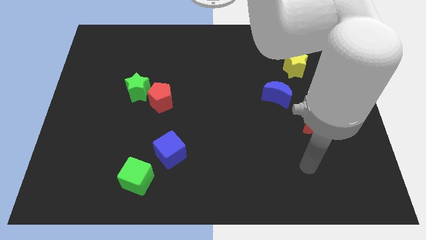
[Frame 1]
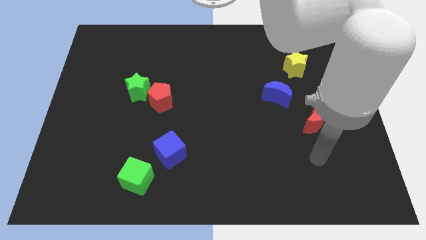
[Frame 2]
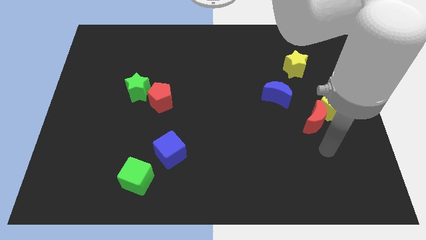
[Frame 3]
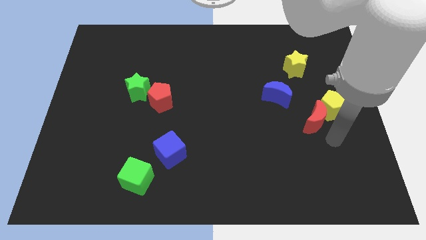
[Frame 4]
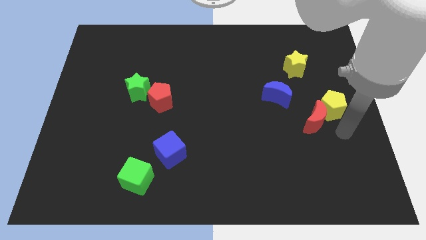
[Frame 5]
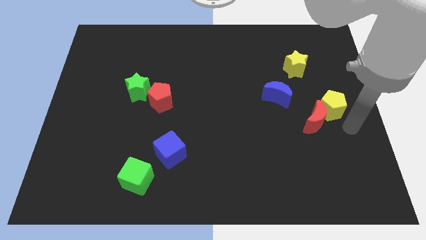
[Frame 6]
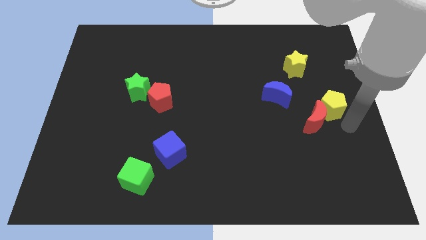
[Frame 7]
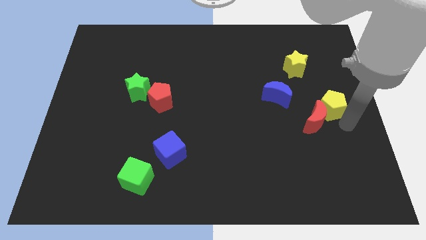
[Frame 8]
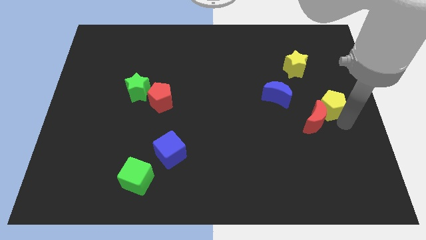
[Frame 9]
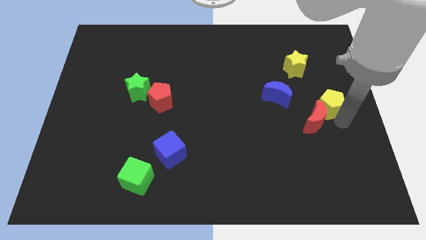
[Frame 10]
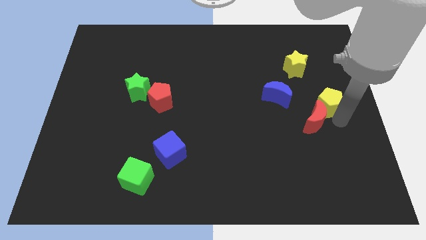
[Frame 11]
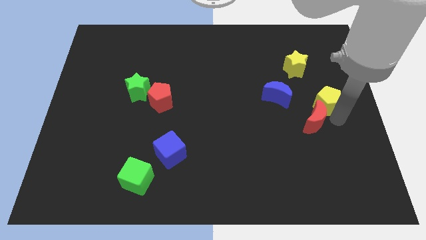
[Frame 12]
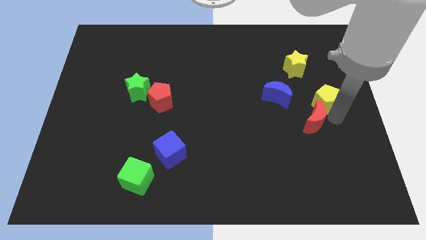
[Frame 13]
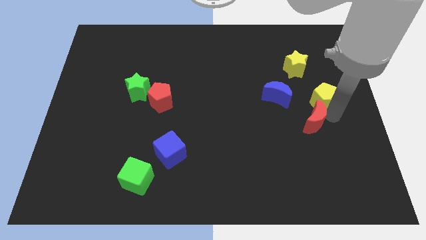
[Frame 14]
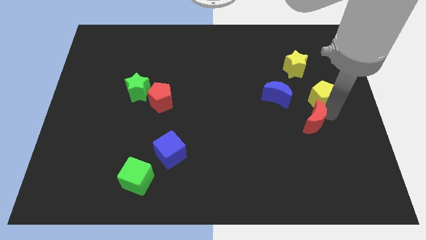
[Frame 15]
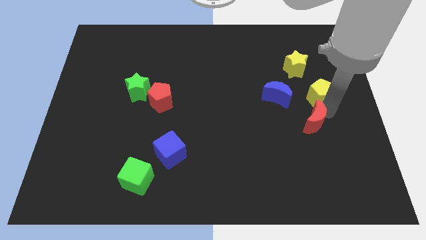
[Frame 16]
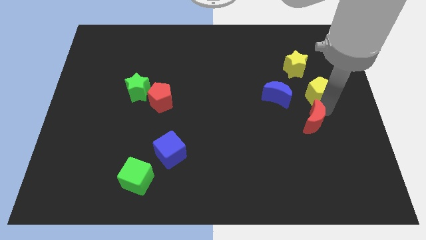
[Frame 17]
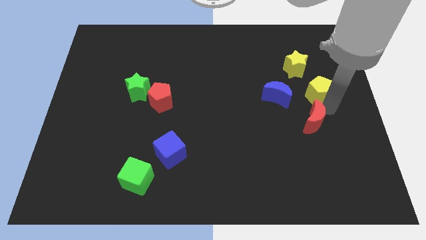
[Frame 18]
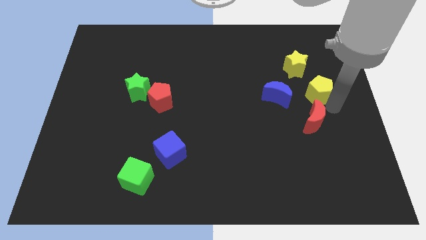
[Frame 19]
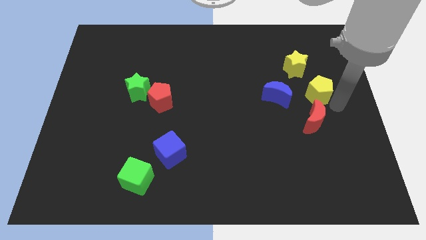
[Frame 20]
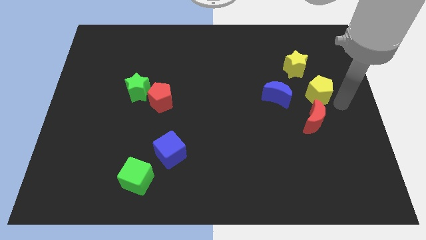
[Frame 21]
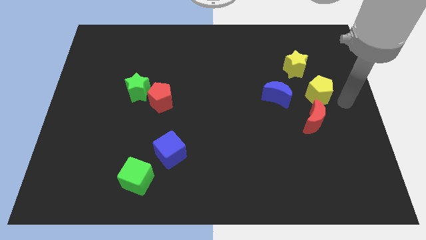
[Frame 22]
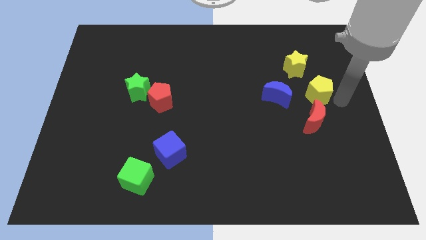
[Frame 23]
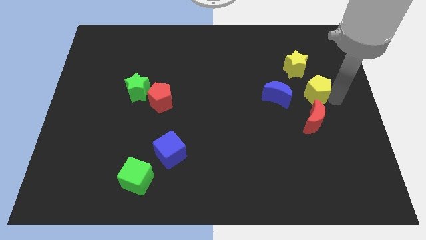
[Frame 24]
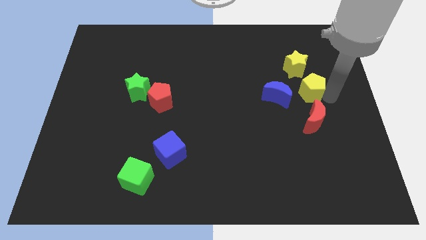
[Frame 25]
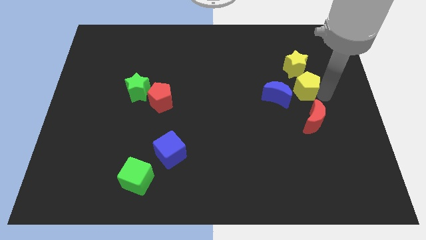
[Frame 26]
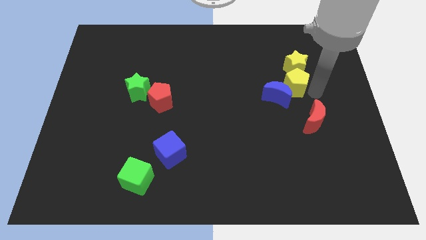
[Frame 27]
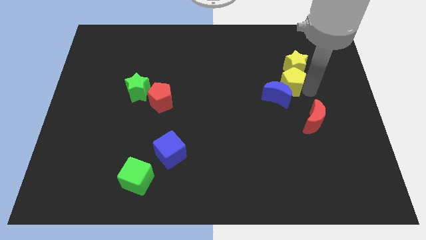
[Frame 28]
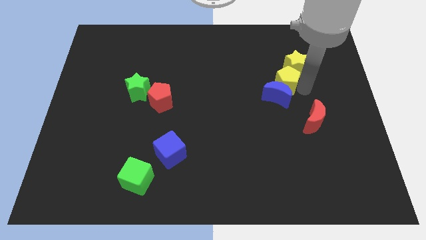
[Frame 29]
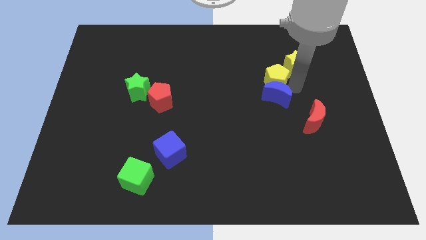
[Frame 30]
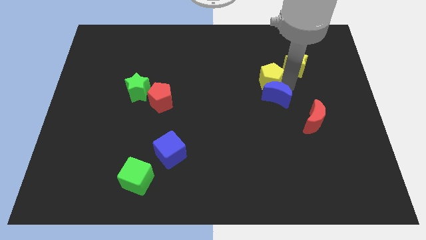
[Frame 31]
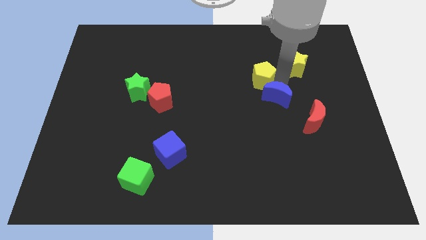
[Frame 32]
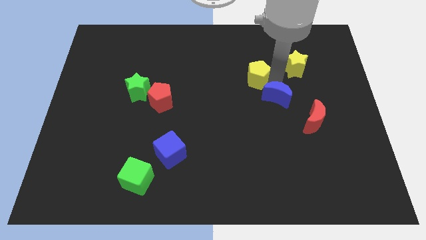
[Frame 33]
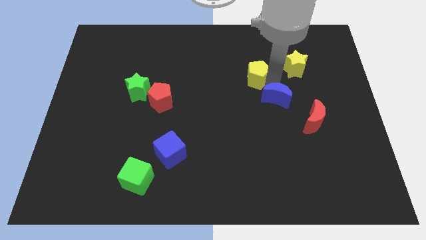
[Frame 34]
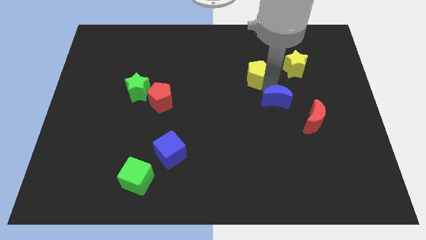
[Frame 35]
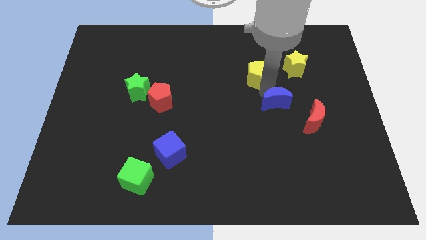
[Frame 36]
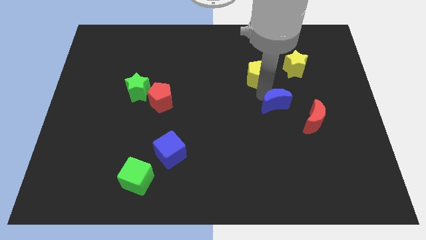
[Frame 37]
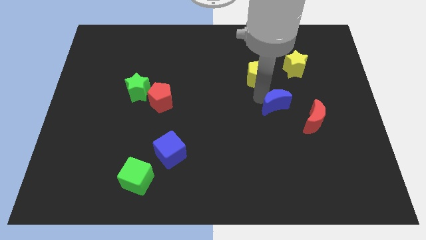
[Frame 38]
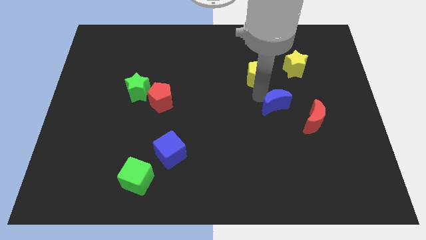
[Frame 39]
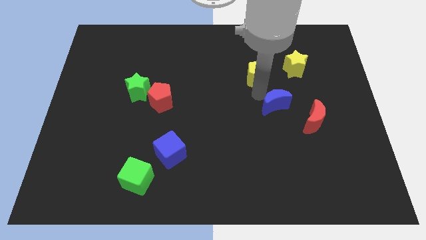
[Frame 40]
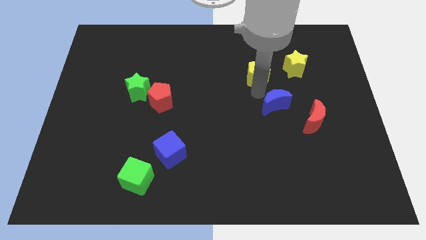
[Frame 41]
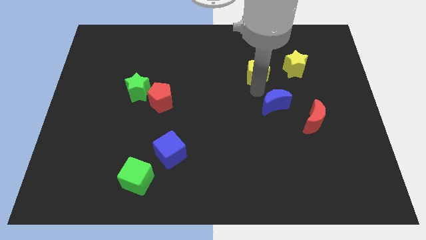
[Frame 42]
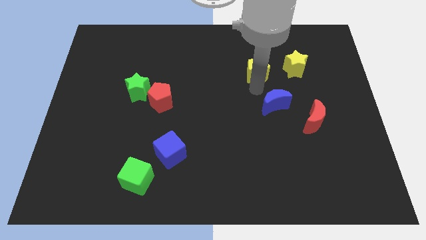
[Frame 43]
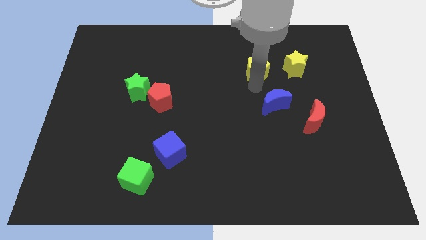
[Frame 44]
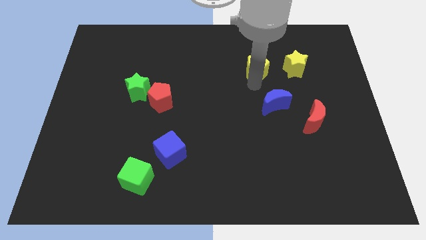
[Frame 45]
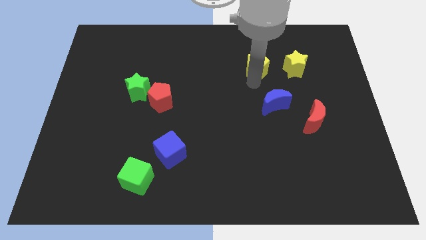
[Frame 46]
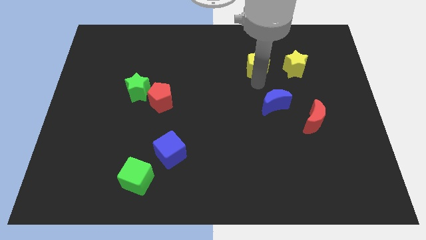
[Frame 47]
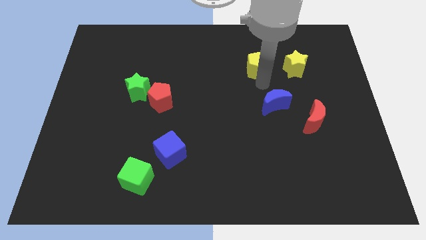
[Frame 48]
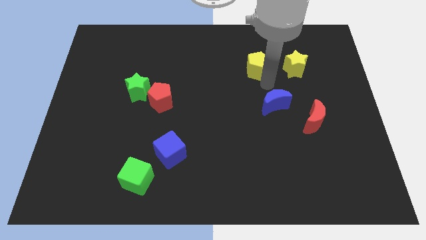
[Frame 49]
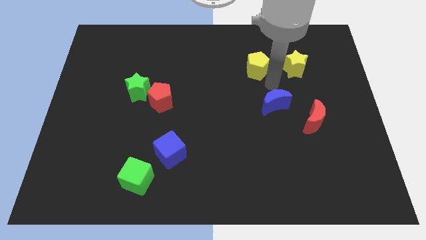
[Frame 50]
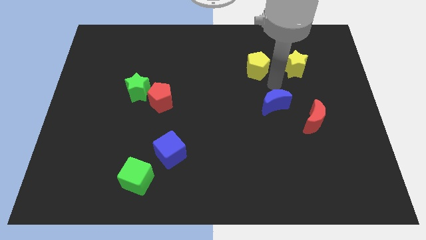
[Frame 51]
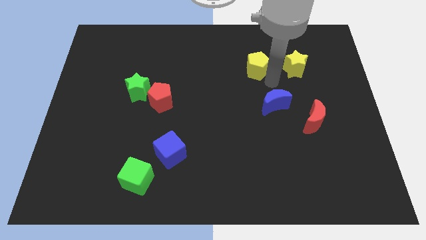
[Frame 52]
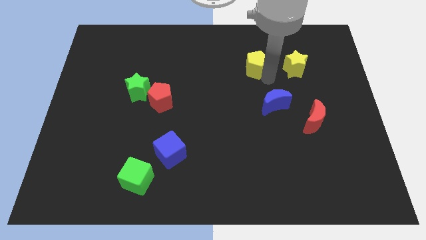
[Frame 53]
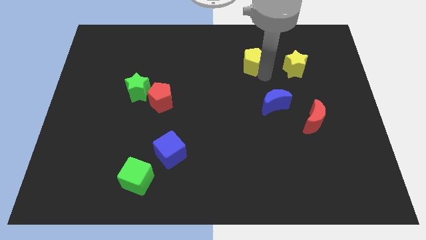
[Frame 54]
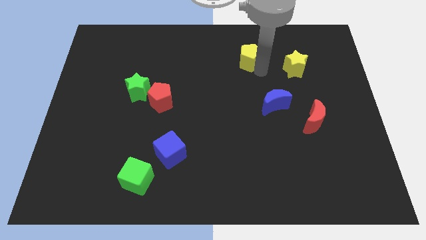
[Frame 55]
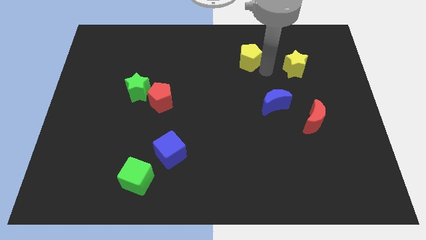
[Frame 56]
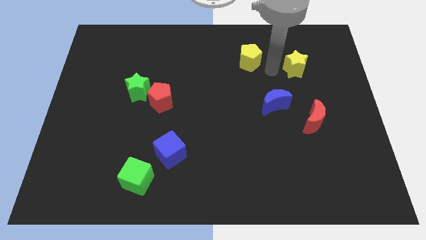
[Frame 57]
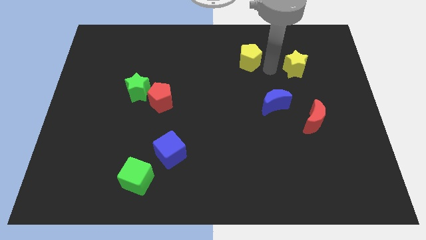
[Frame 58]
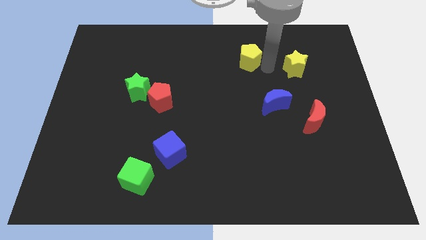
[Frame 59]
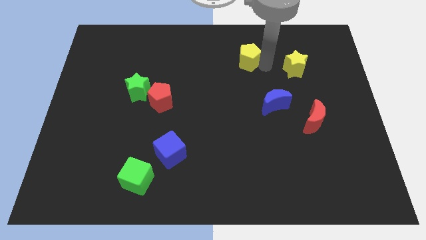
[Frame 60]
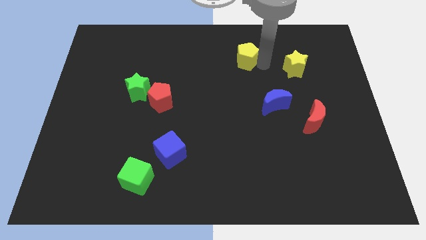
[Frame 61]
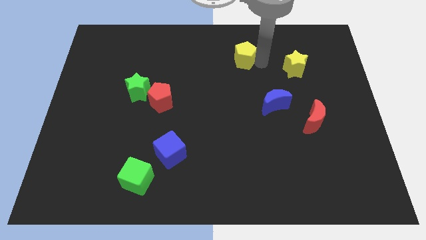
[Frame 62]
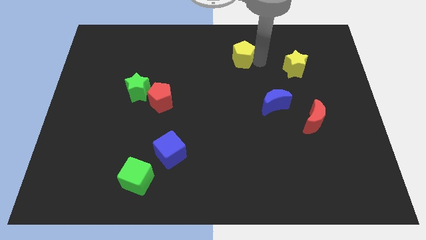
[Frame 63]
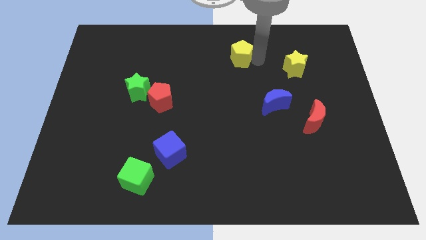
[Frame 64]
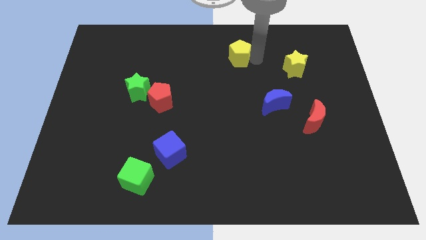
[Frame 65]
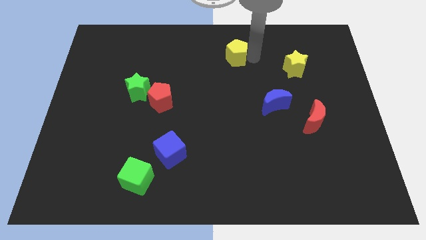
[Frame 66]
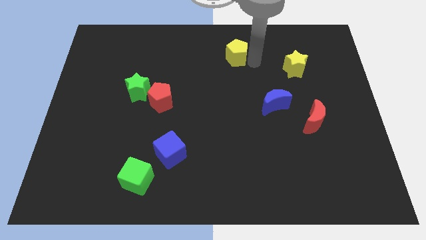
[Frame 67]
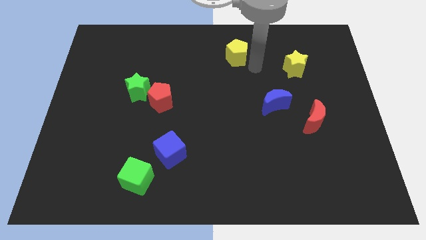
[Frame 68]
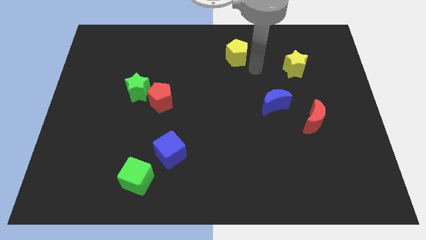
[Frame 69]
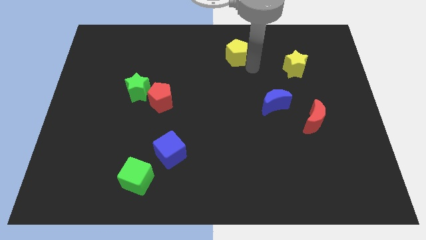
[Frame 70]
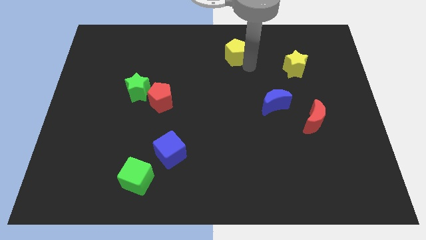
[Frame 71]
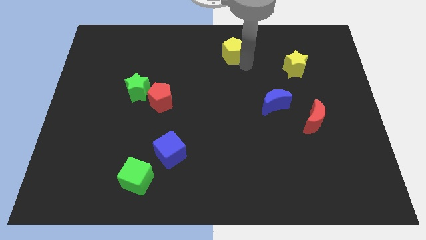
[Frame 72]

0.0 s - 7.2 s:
slide the yellow pentagon to the top side
